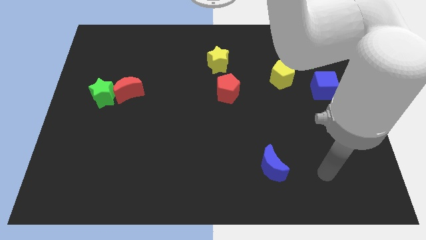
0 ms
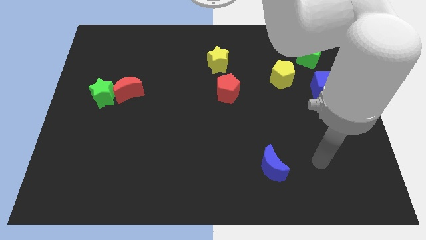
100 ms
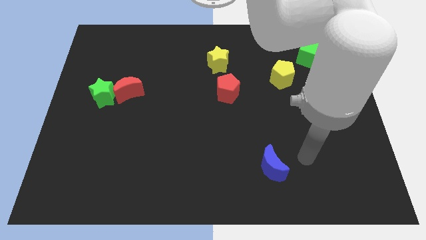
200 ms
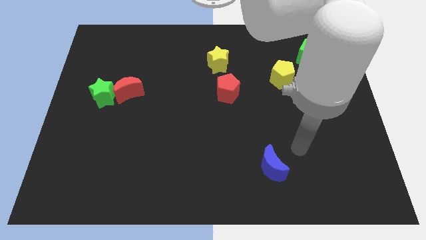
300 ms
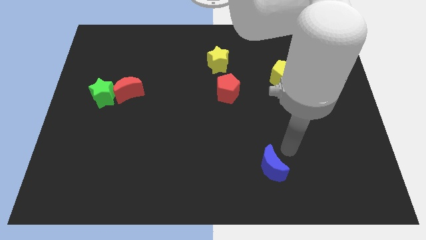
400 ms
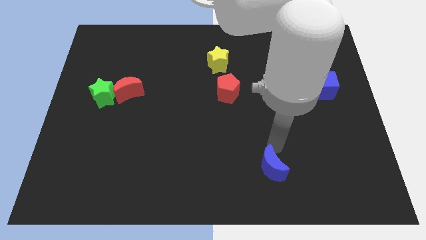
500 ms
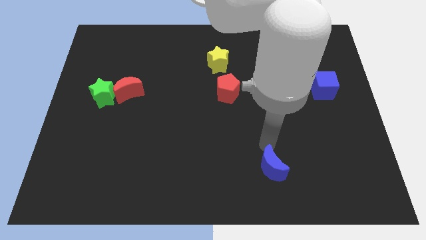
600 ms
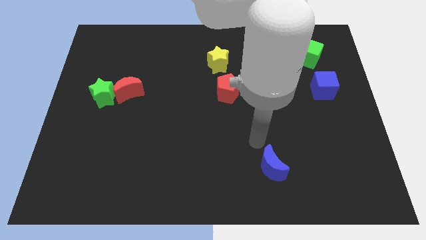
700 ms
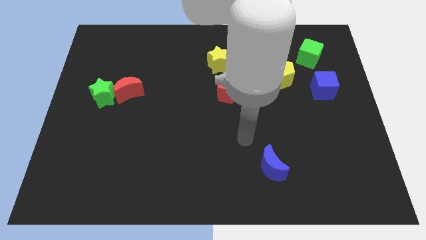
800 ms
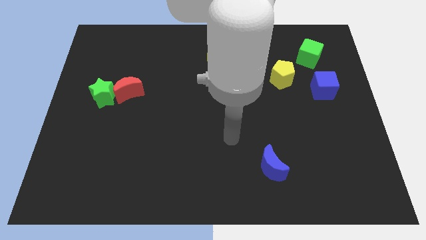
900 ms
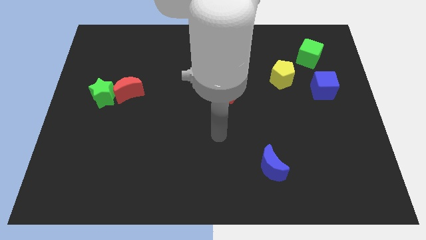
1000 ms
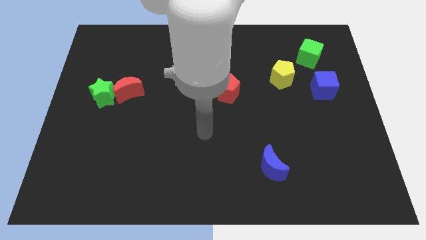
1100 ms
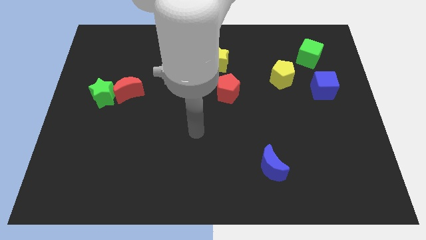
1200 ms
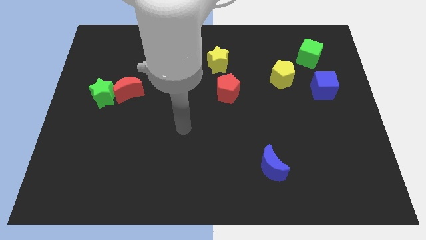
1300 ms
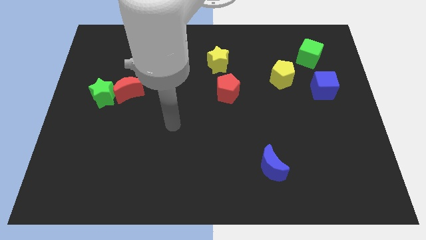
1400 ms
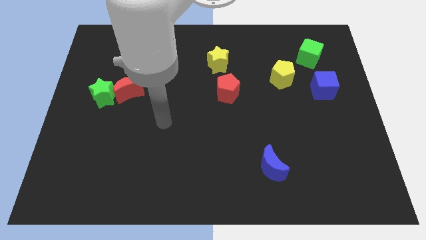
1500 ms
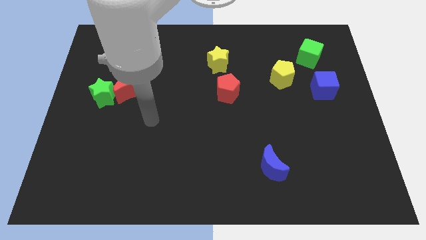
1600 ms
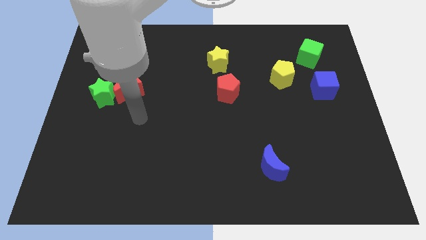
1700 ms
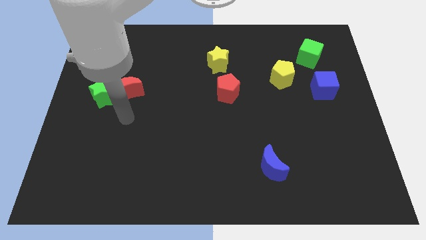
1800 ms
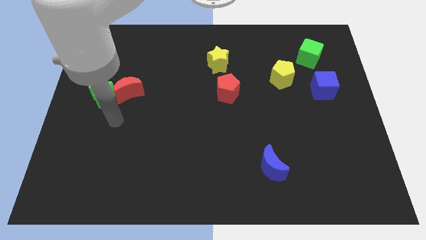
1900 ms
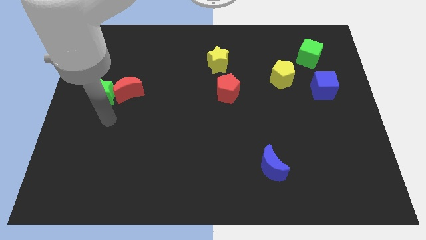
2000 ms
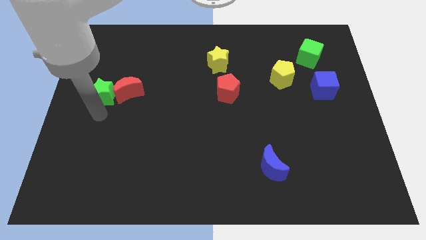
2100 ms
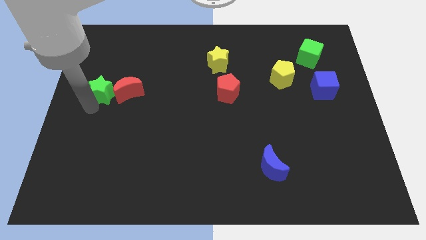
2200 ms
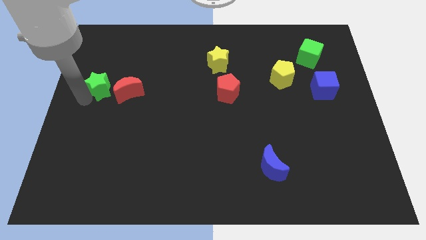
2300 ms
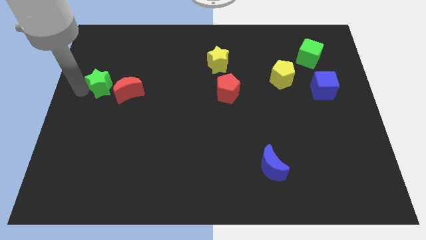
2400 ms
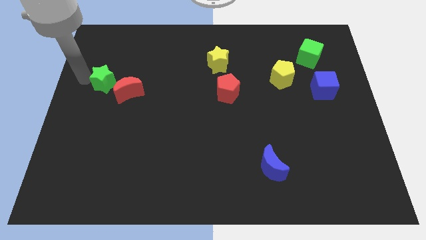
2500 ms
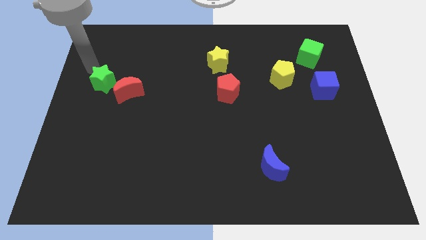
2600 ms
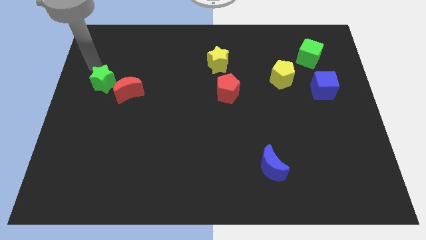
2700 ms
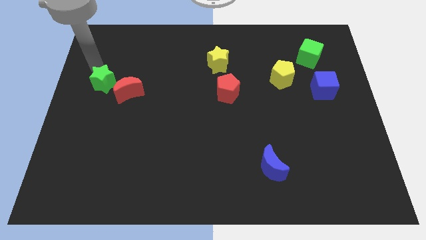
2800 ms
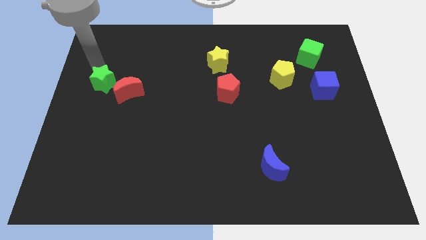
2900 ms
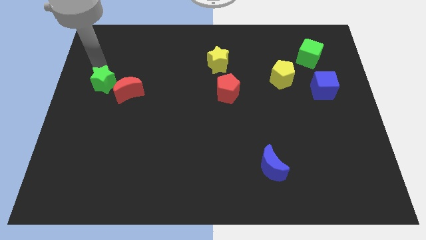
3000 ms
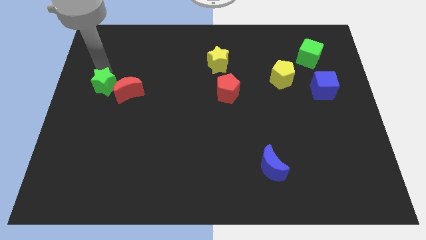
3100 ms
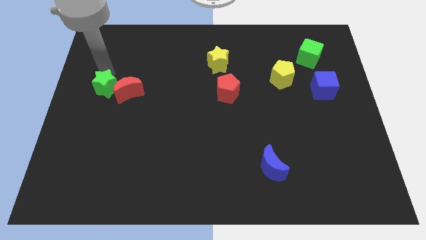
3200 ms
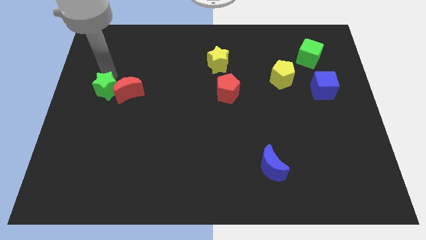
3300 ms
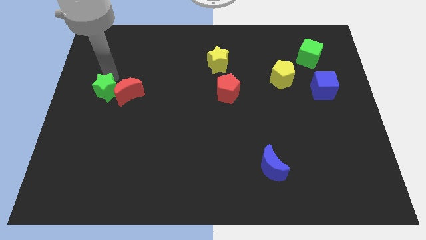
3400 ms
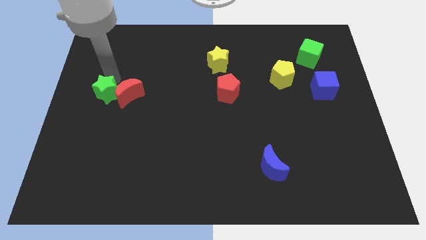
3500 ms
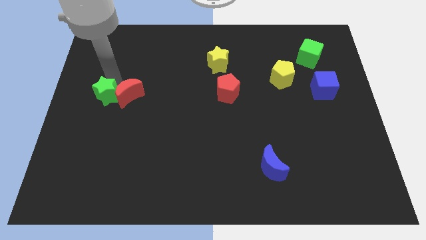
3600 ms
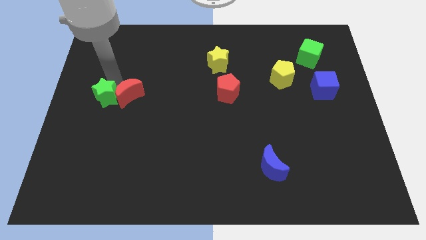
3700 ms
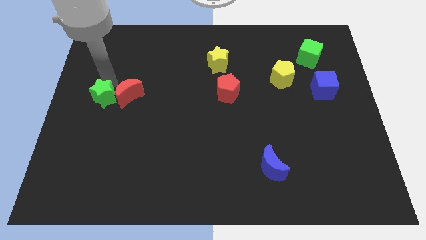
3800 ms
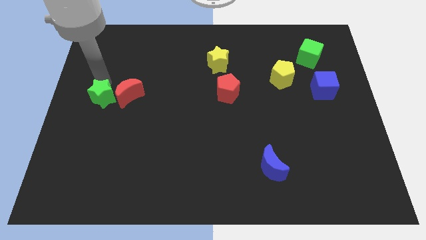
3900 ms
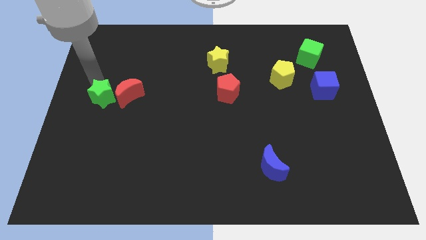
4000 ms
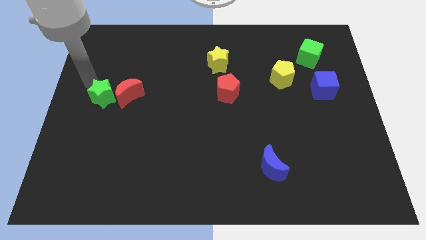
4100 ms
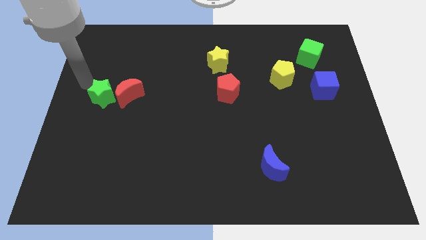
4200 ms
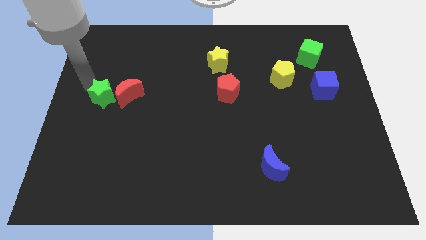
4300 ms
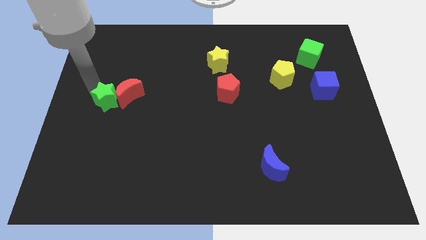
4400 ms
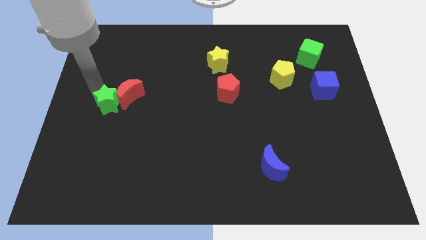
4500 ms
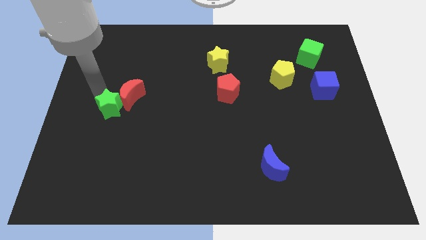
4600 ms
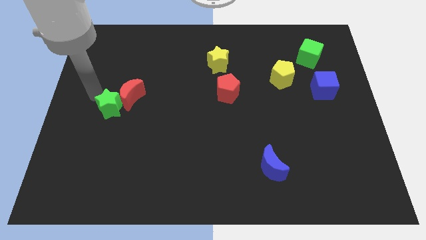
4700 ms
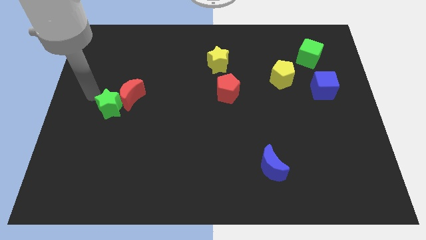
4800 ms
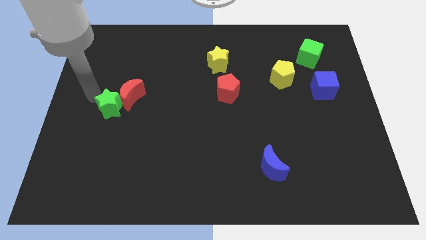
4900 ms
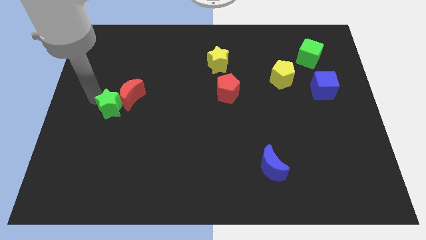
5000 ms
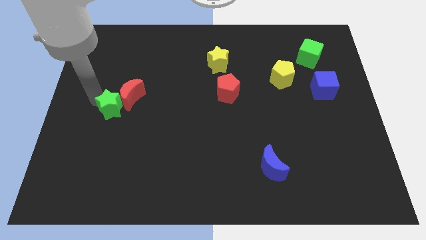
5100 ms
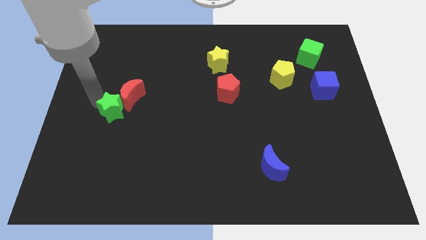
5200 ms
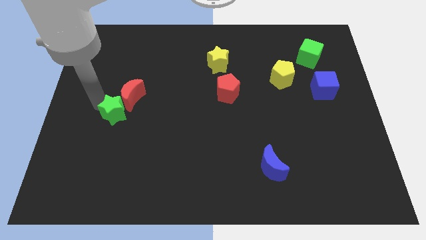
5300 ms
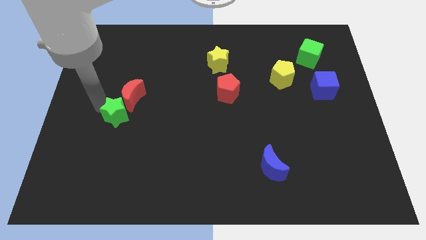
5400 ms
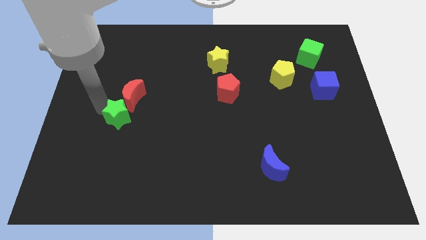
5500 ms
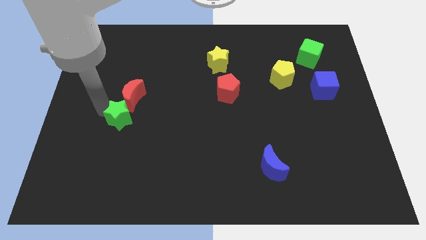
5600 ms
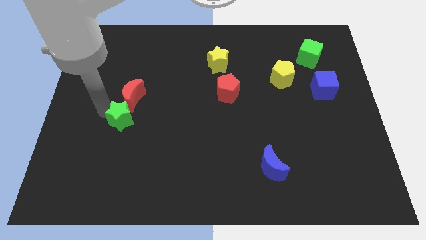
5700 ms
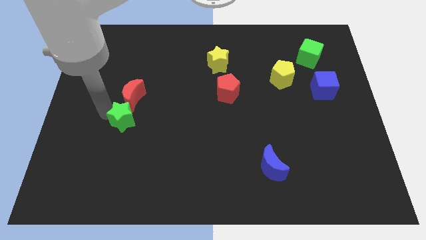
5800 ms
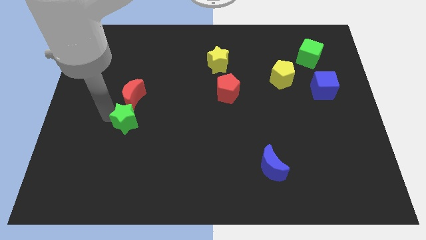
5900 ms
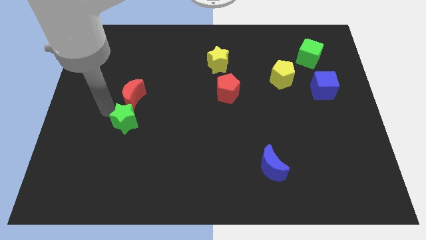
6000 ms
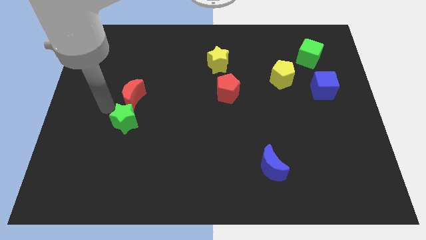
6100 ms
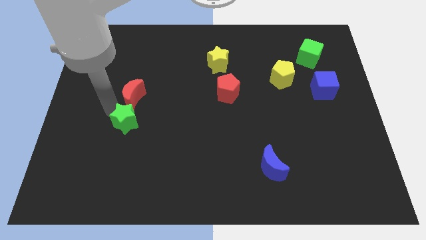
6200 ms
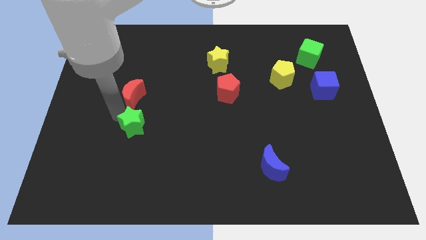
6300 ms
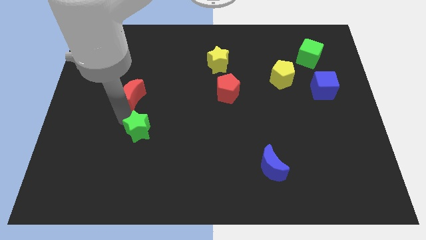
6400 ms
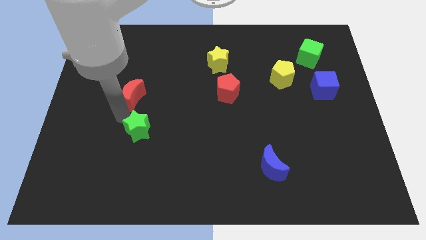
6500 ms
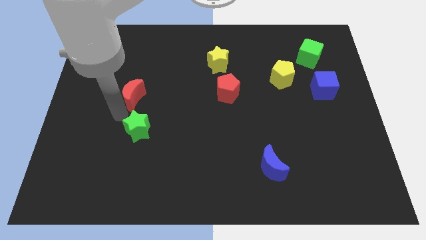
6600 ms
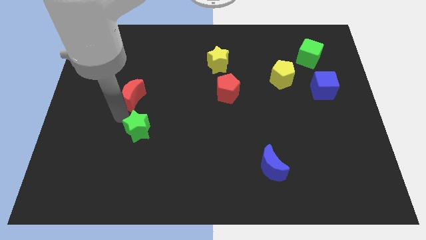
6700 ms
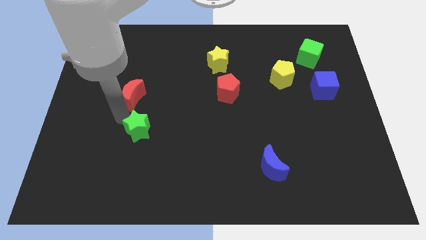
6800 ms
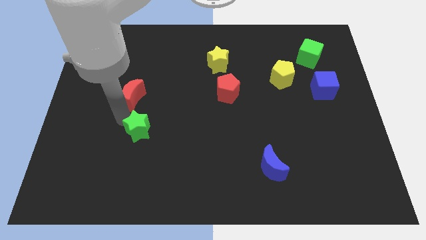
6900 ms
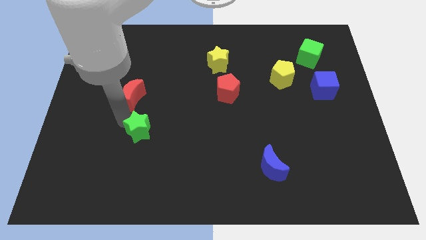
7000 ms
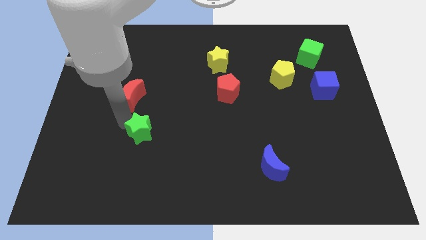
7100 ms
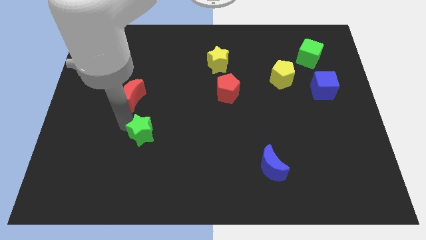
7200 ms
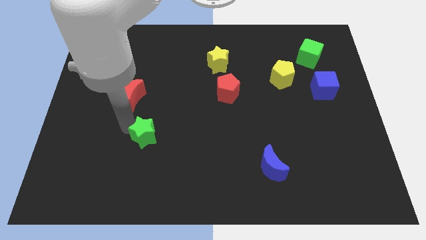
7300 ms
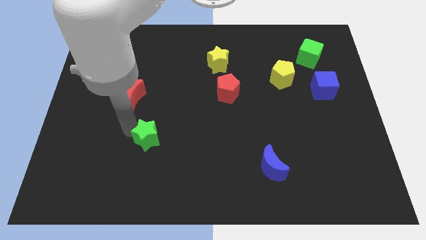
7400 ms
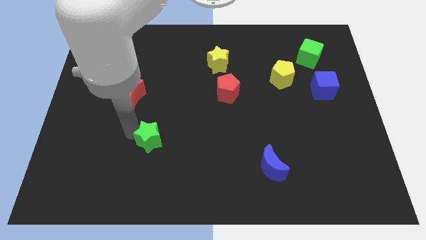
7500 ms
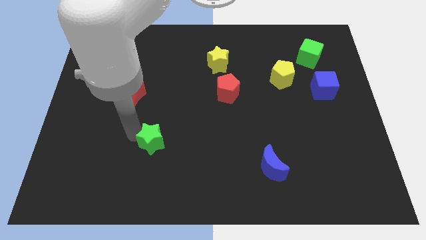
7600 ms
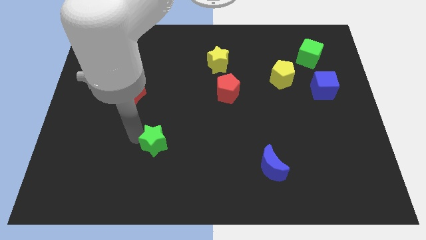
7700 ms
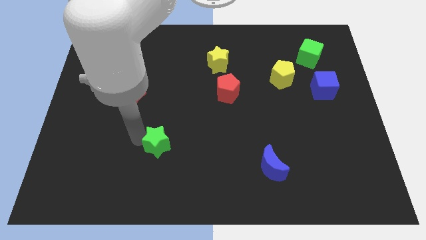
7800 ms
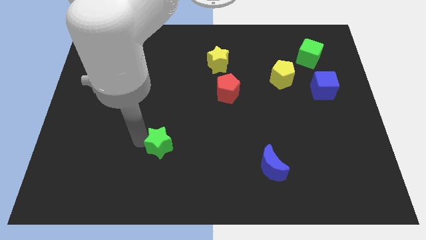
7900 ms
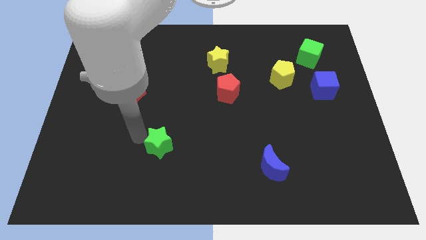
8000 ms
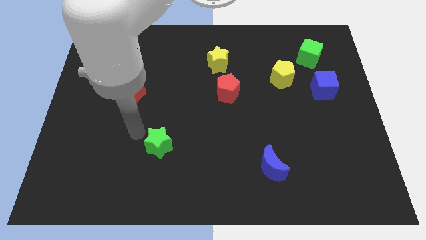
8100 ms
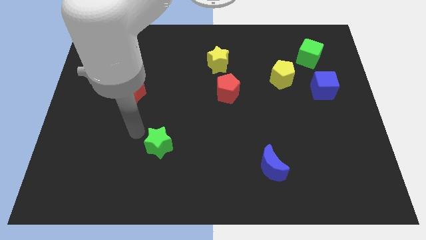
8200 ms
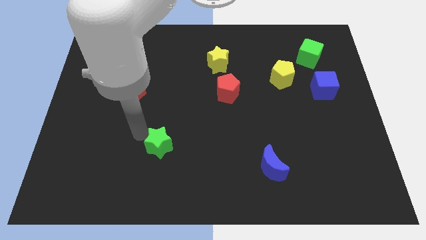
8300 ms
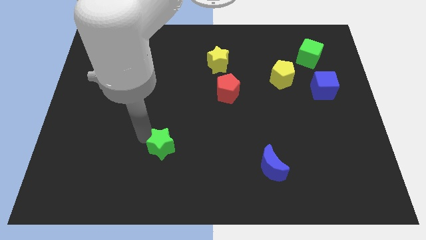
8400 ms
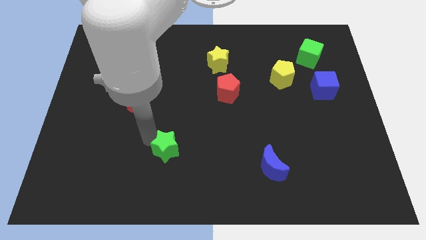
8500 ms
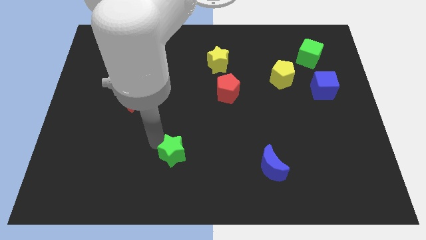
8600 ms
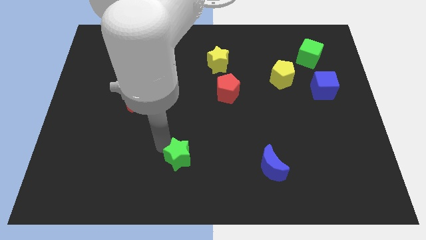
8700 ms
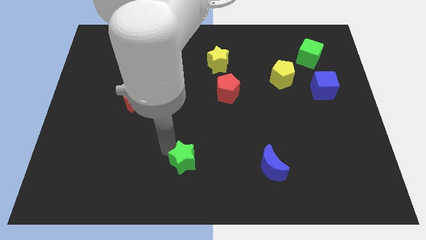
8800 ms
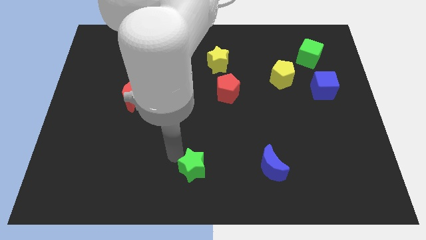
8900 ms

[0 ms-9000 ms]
put the green star just left of the blue moon
